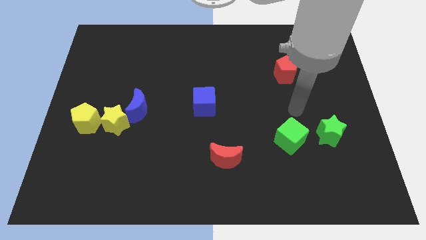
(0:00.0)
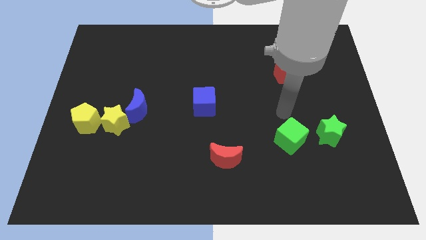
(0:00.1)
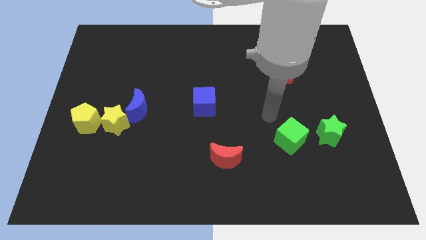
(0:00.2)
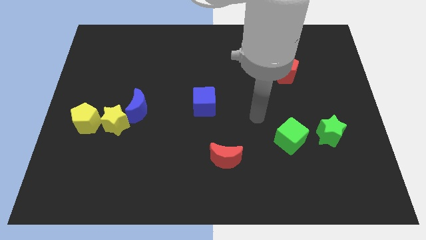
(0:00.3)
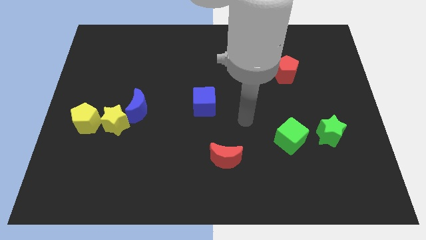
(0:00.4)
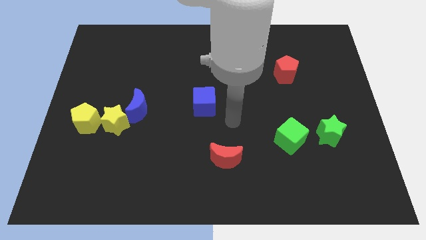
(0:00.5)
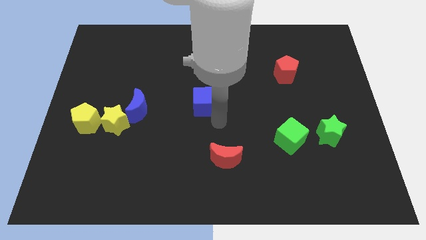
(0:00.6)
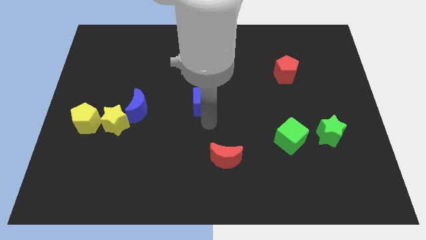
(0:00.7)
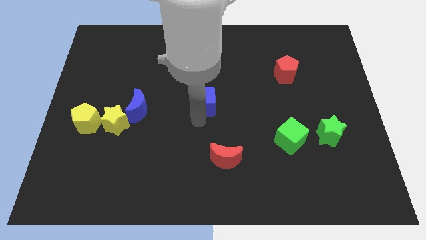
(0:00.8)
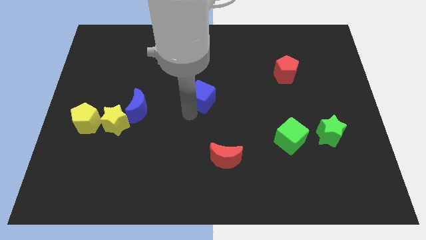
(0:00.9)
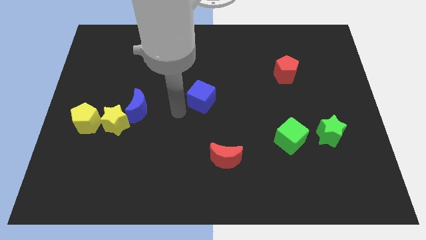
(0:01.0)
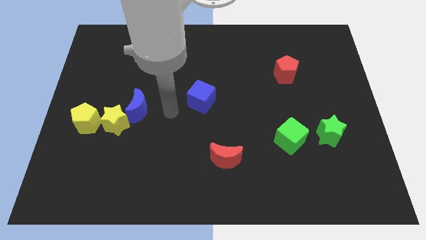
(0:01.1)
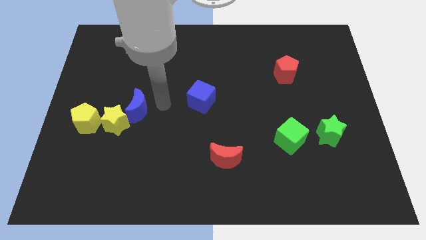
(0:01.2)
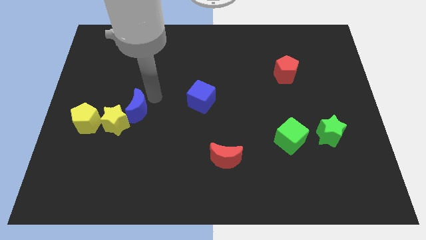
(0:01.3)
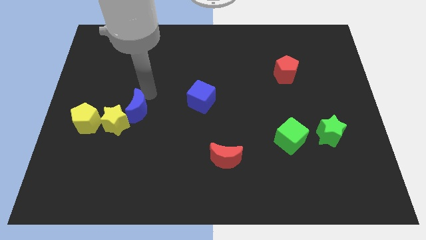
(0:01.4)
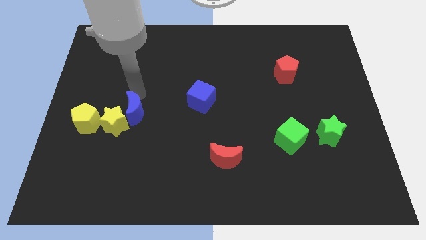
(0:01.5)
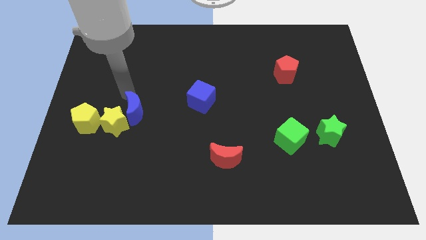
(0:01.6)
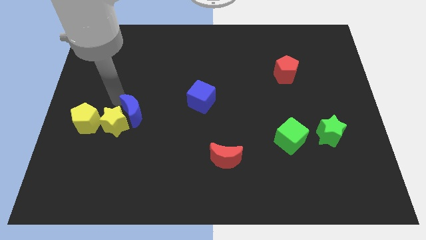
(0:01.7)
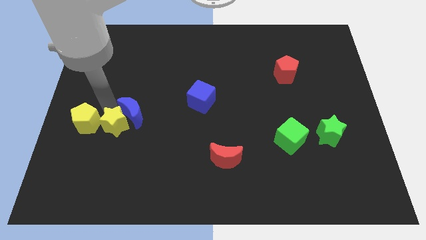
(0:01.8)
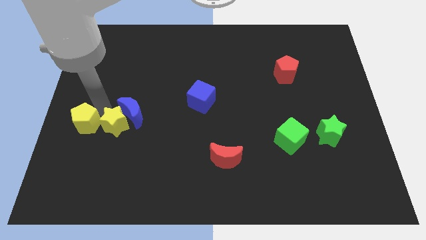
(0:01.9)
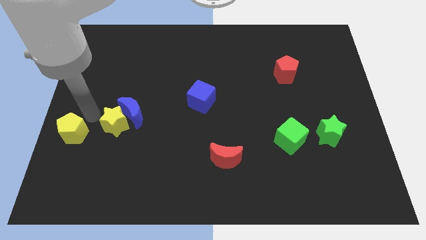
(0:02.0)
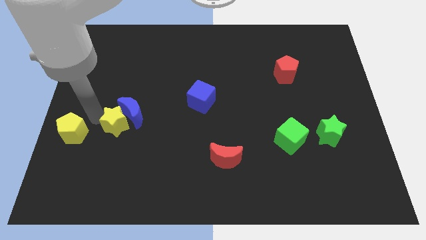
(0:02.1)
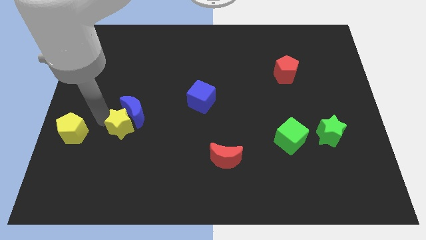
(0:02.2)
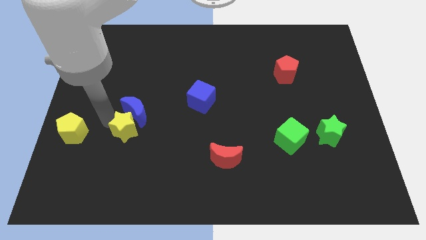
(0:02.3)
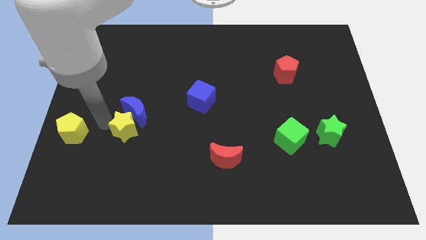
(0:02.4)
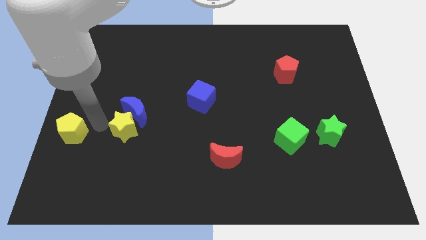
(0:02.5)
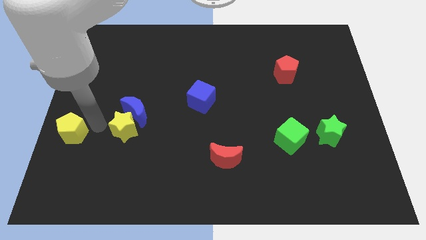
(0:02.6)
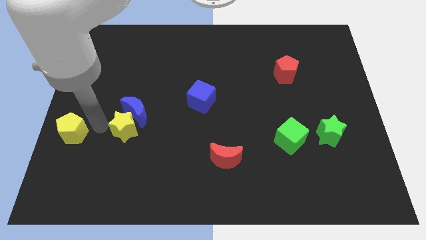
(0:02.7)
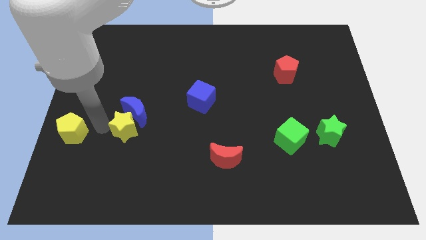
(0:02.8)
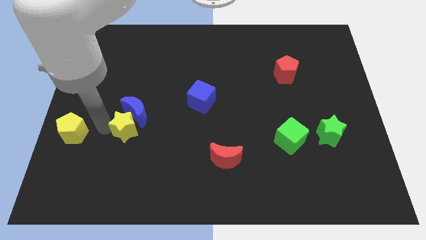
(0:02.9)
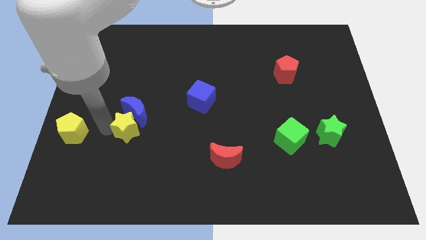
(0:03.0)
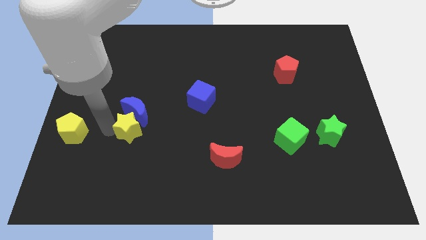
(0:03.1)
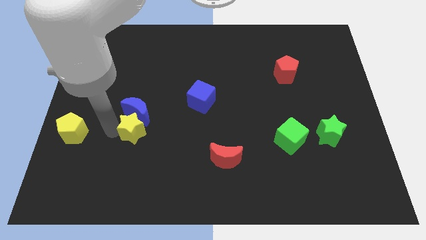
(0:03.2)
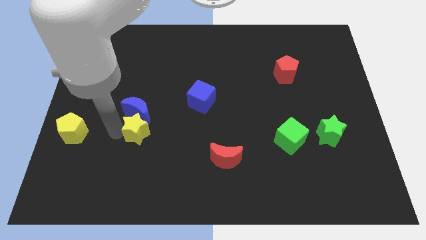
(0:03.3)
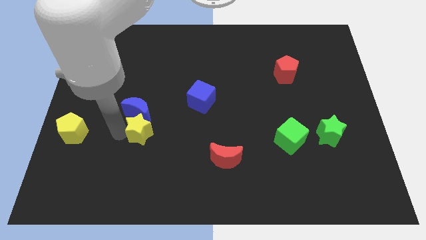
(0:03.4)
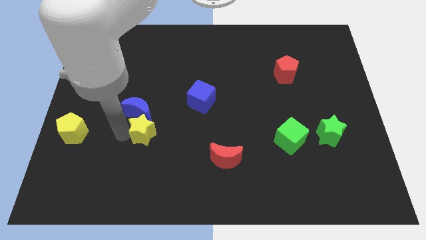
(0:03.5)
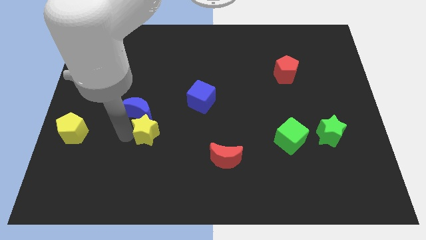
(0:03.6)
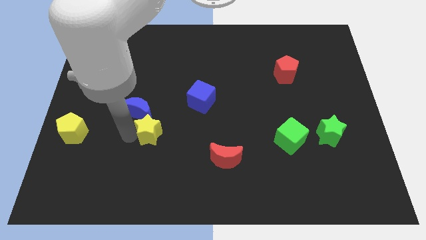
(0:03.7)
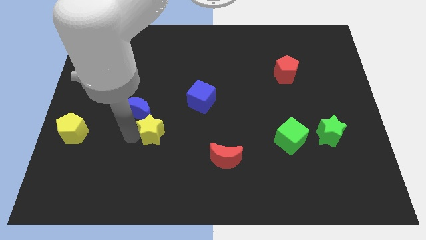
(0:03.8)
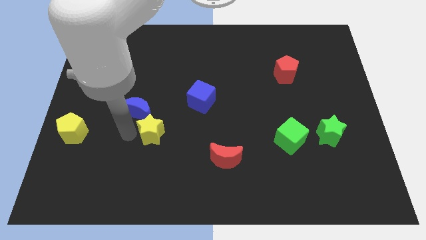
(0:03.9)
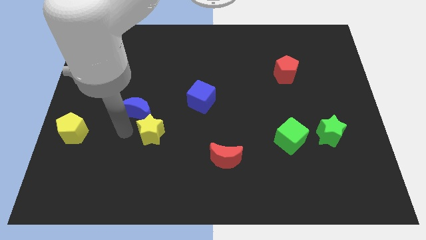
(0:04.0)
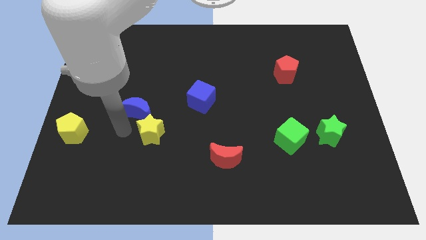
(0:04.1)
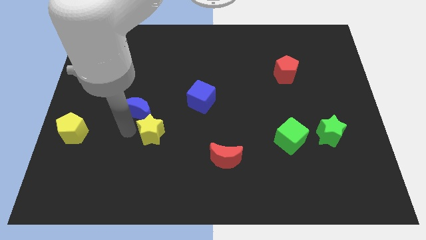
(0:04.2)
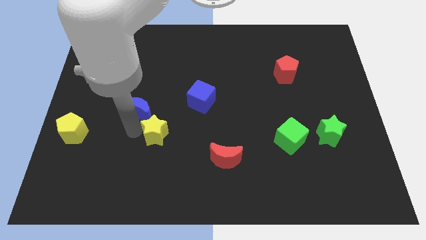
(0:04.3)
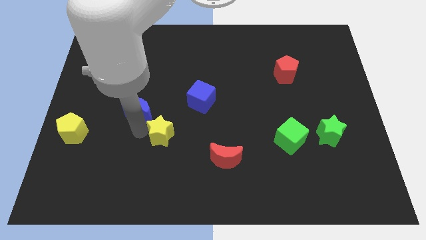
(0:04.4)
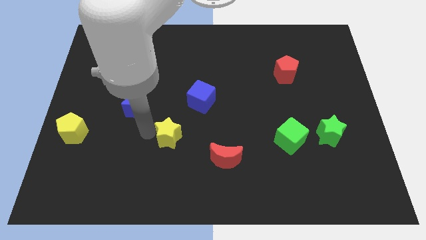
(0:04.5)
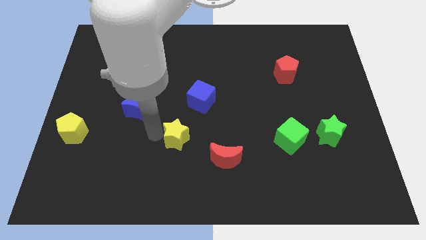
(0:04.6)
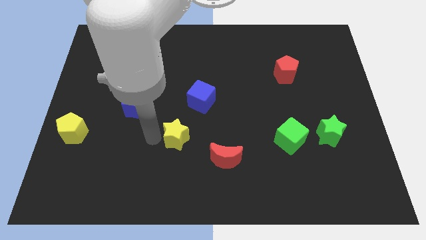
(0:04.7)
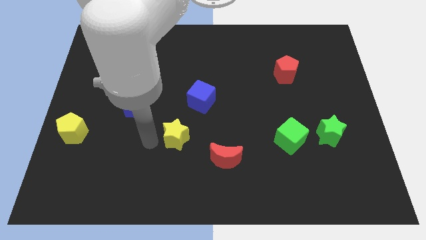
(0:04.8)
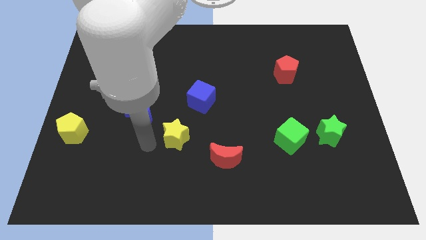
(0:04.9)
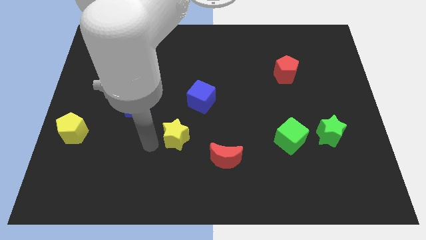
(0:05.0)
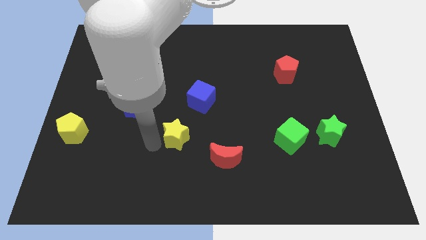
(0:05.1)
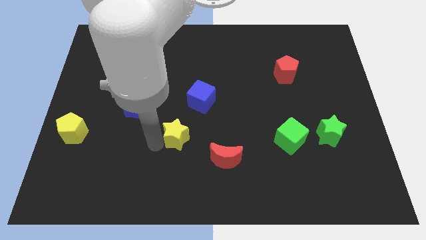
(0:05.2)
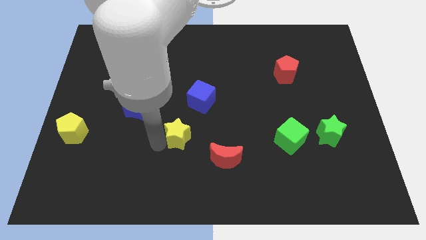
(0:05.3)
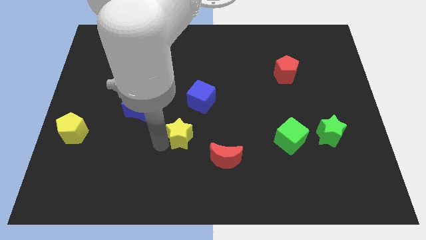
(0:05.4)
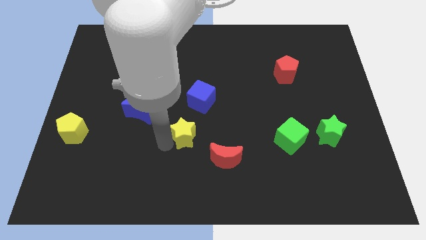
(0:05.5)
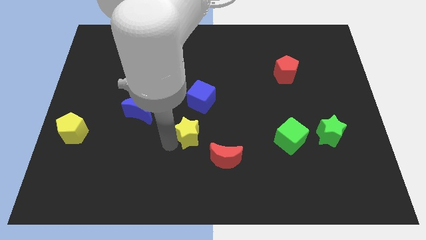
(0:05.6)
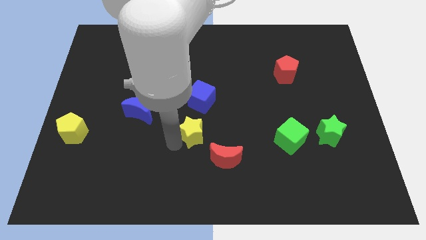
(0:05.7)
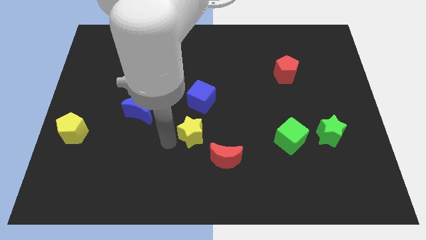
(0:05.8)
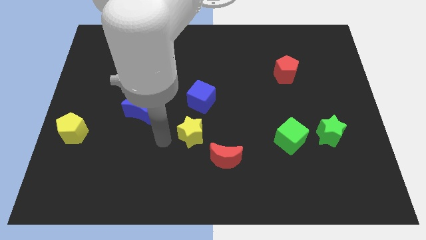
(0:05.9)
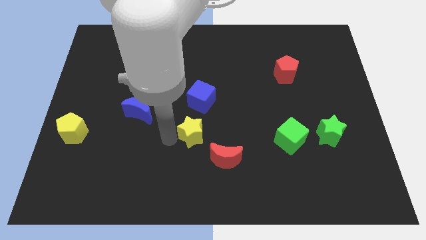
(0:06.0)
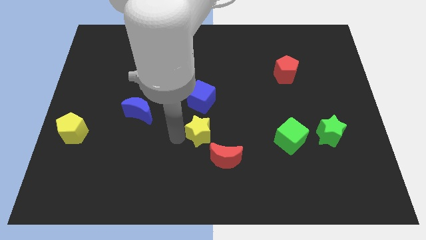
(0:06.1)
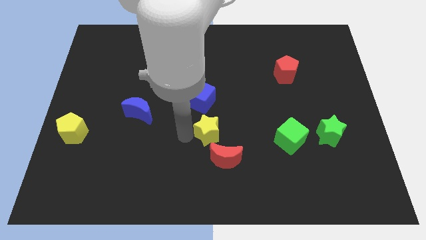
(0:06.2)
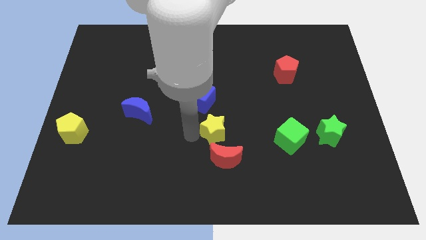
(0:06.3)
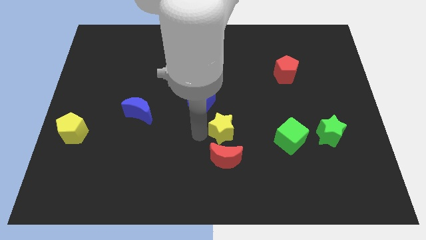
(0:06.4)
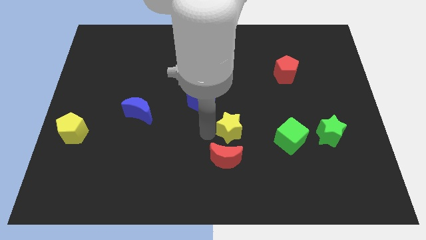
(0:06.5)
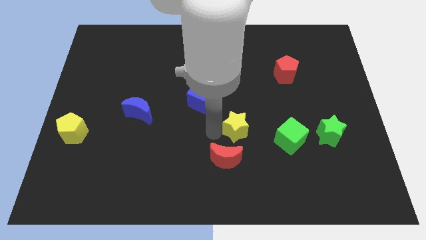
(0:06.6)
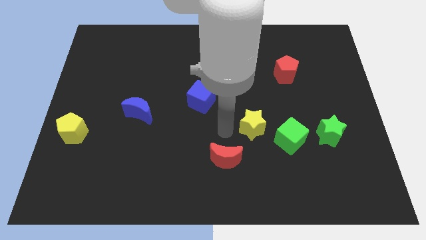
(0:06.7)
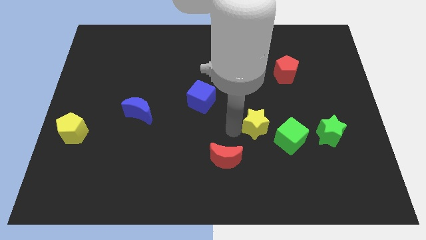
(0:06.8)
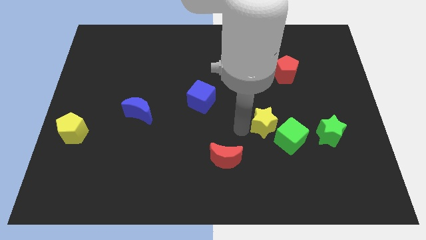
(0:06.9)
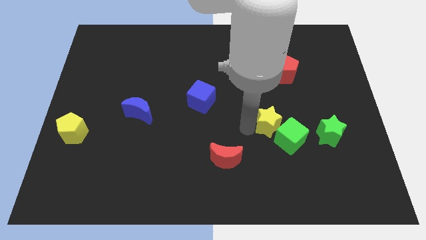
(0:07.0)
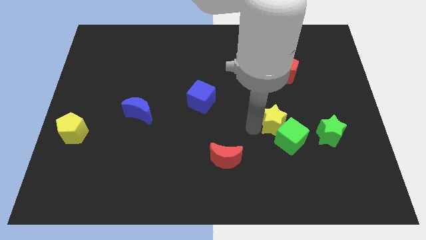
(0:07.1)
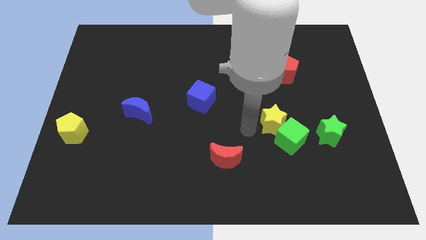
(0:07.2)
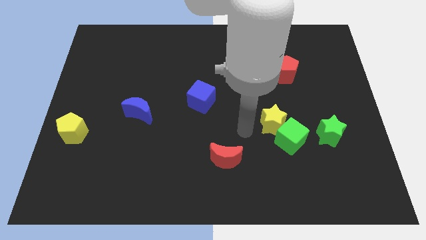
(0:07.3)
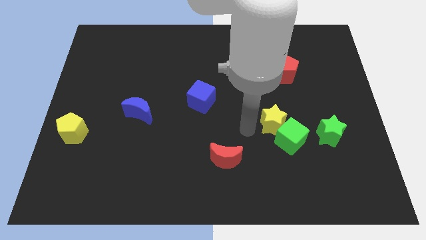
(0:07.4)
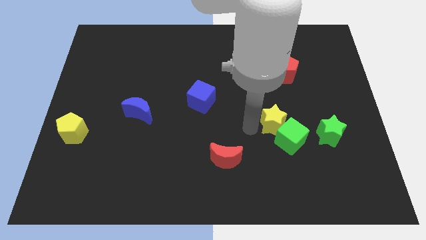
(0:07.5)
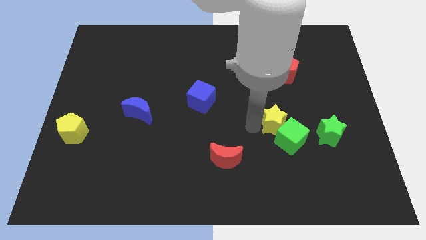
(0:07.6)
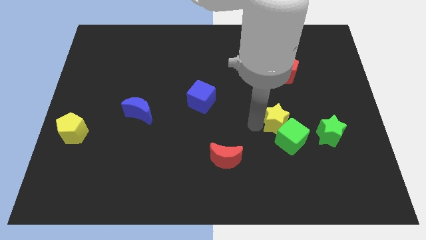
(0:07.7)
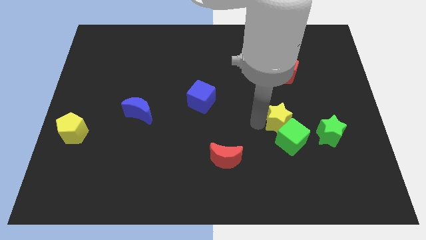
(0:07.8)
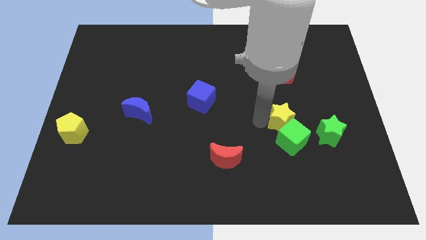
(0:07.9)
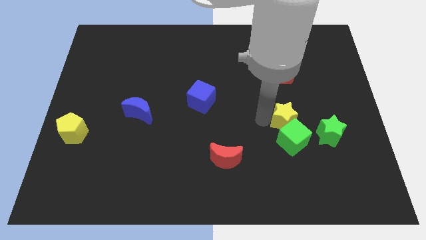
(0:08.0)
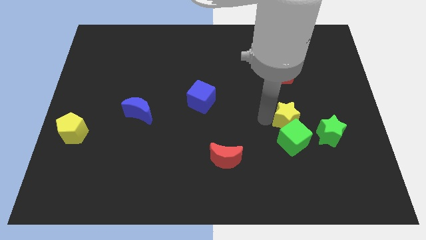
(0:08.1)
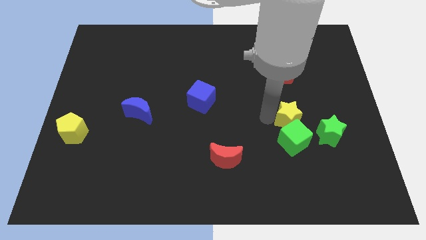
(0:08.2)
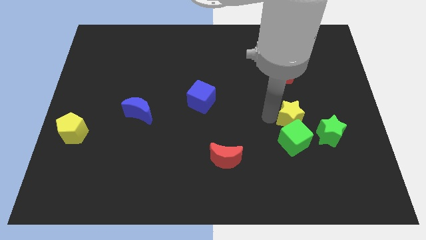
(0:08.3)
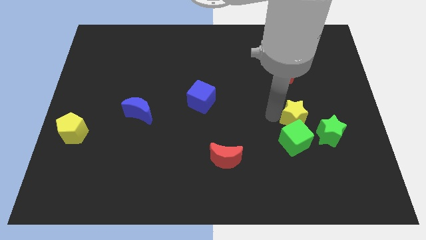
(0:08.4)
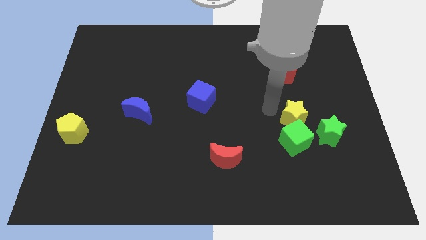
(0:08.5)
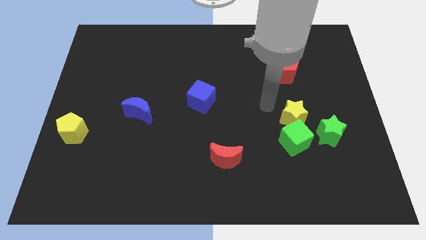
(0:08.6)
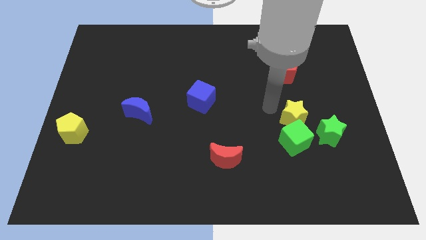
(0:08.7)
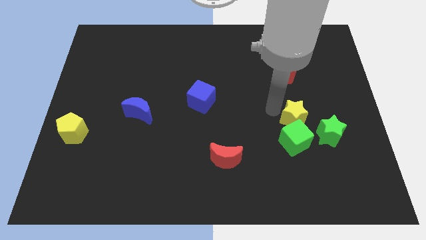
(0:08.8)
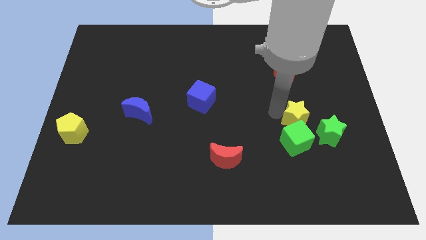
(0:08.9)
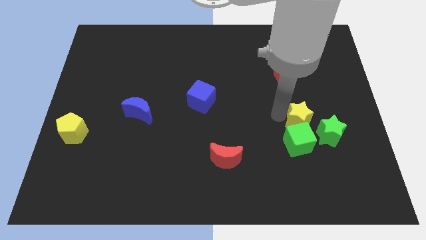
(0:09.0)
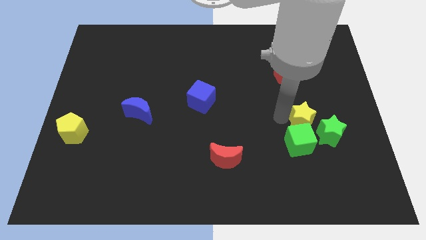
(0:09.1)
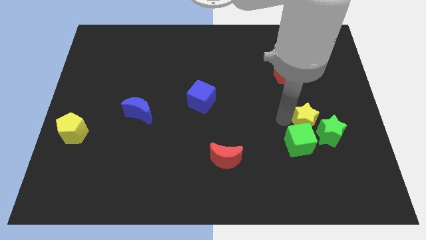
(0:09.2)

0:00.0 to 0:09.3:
push the yellow star next to the green star
